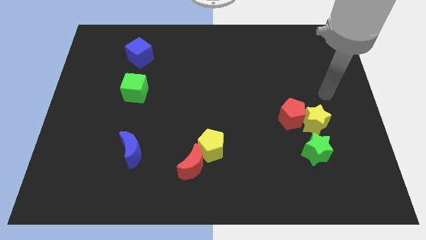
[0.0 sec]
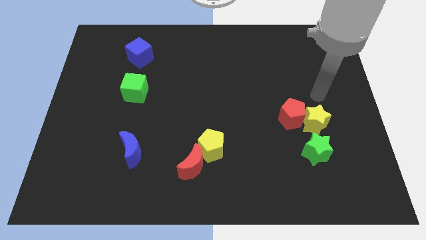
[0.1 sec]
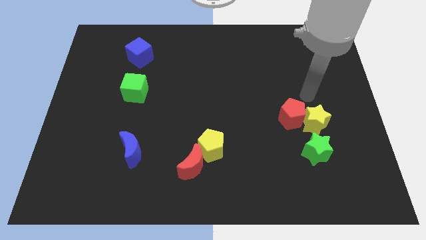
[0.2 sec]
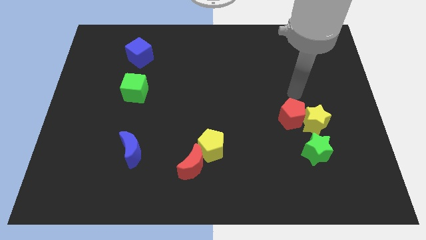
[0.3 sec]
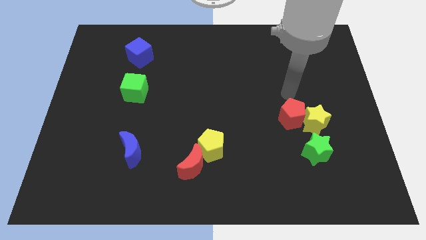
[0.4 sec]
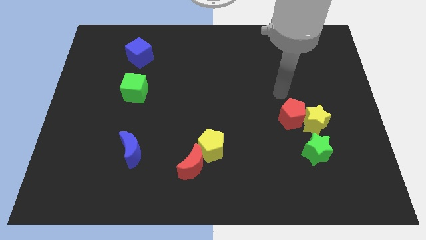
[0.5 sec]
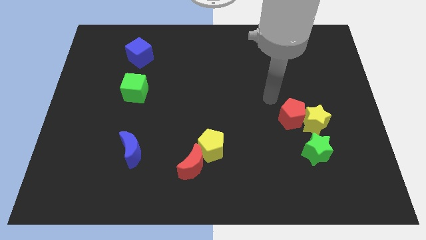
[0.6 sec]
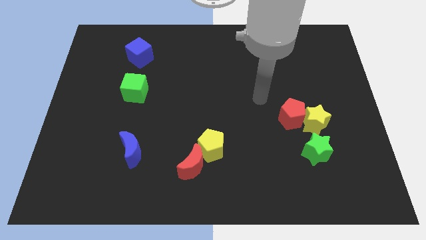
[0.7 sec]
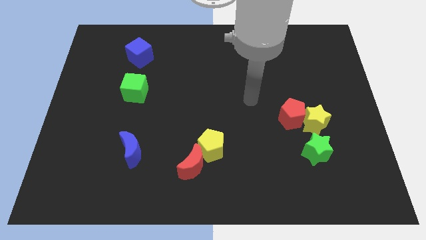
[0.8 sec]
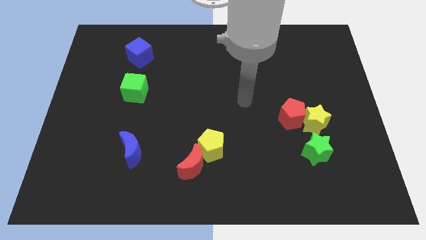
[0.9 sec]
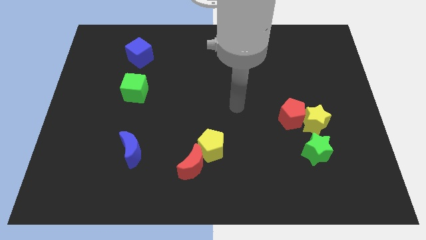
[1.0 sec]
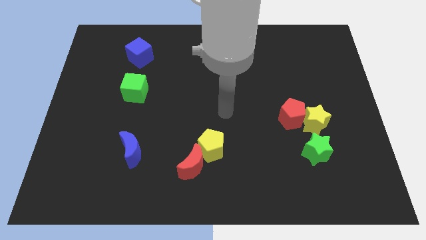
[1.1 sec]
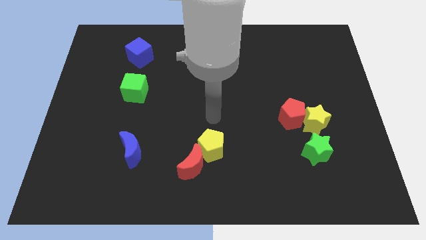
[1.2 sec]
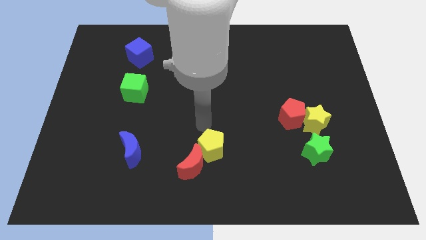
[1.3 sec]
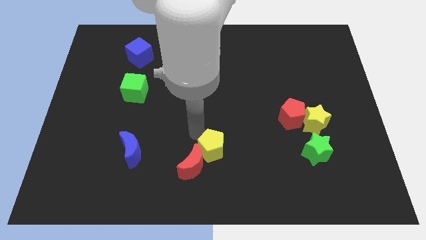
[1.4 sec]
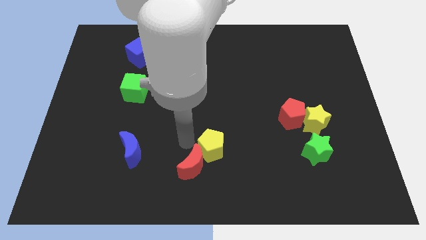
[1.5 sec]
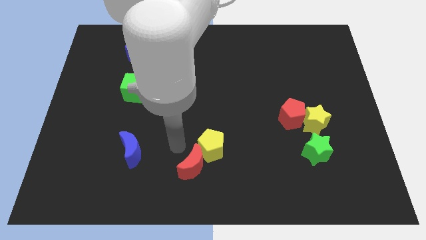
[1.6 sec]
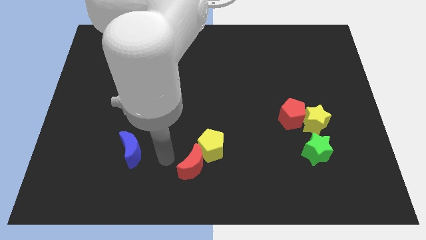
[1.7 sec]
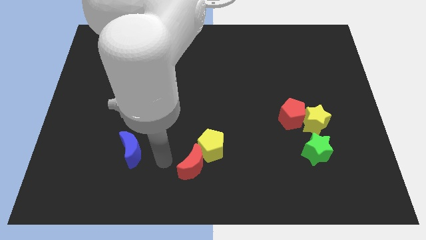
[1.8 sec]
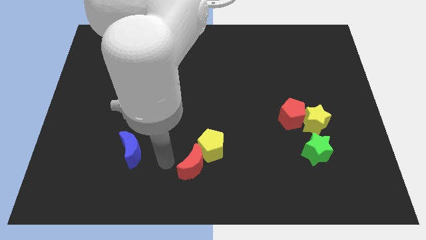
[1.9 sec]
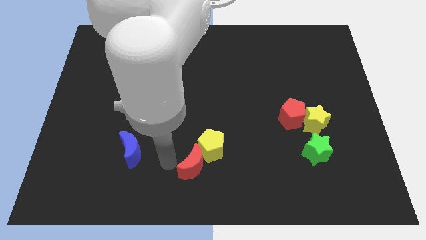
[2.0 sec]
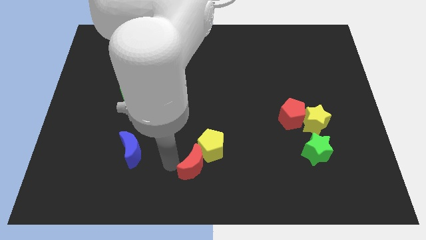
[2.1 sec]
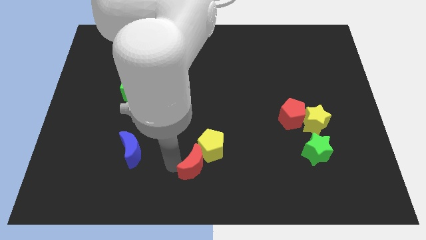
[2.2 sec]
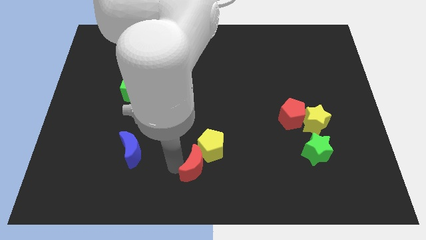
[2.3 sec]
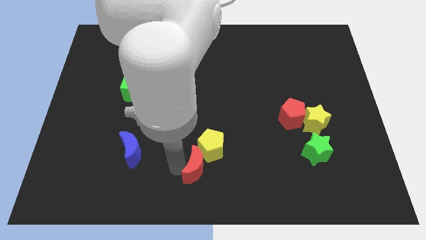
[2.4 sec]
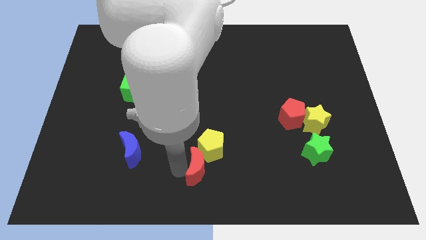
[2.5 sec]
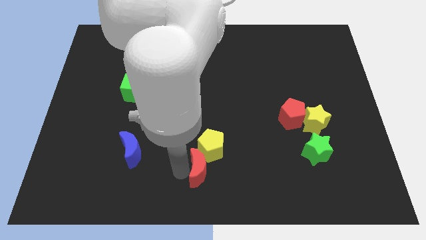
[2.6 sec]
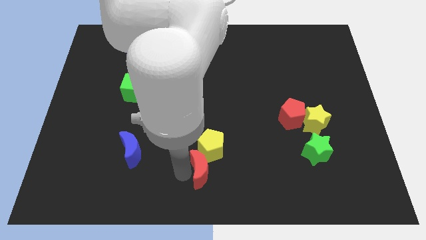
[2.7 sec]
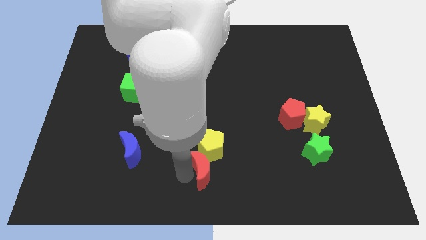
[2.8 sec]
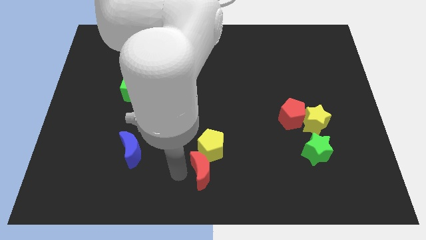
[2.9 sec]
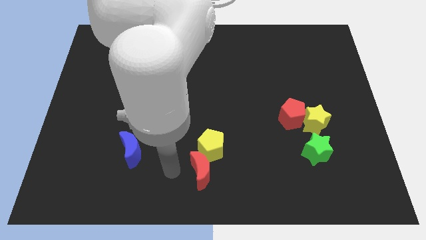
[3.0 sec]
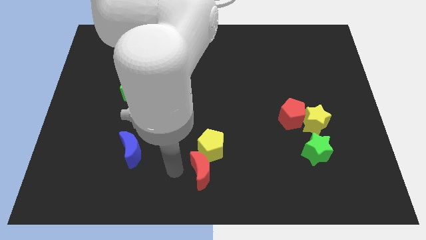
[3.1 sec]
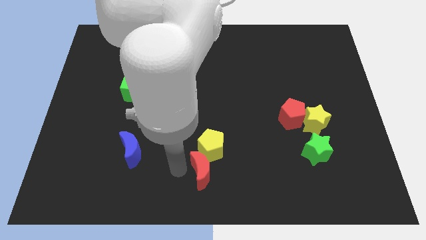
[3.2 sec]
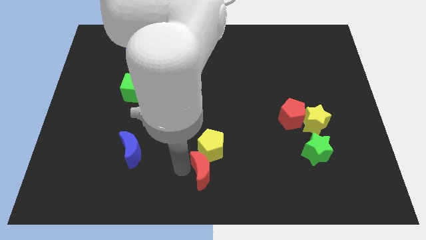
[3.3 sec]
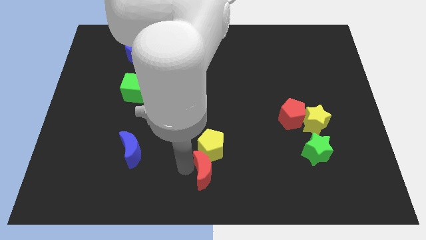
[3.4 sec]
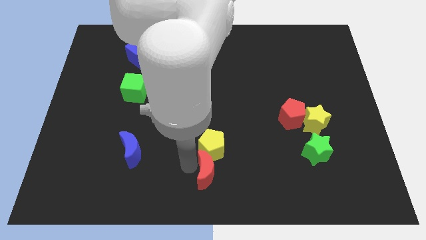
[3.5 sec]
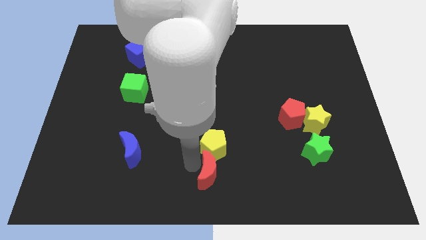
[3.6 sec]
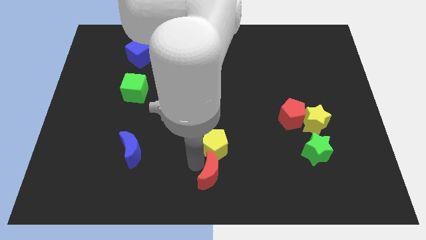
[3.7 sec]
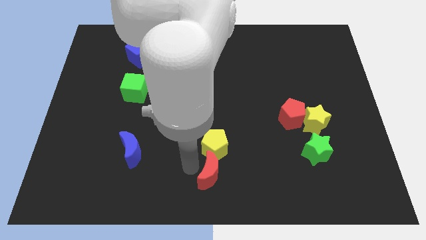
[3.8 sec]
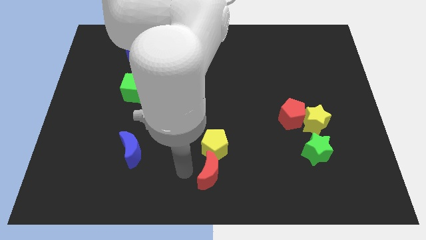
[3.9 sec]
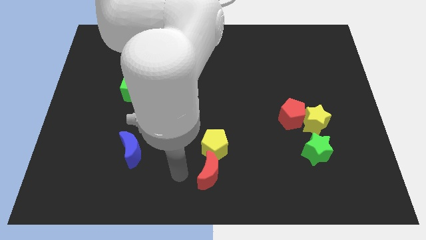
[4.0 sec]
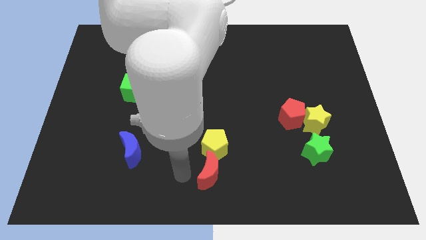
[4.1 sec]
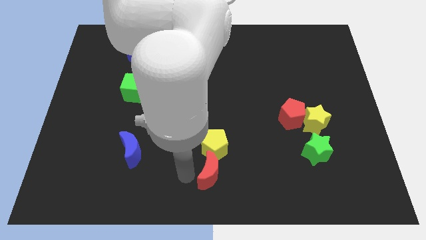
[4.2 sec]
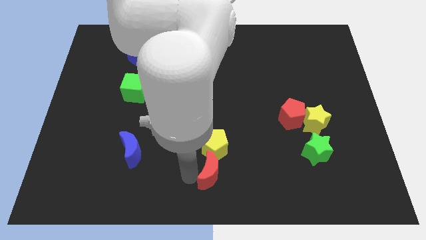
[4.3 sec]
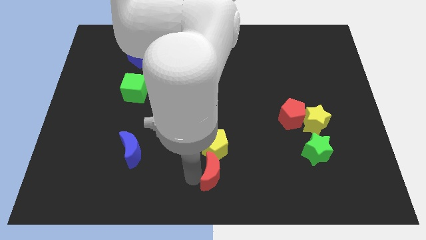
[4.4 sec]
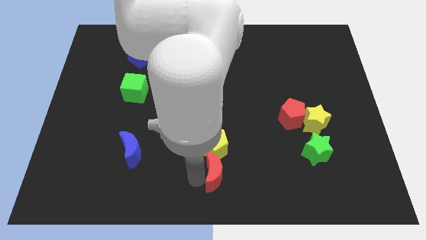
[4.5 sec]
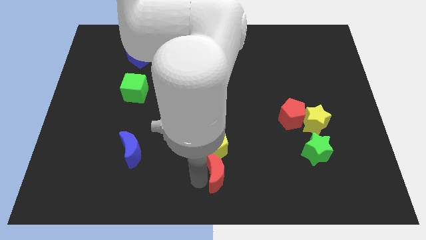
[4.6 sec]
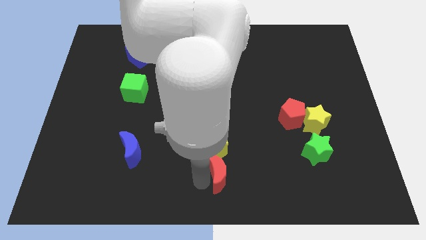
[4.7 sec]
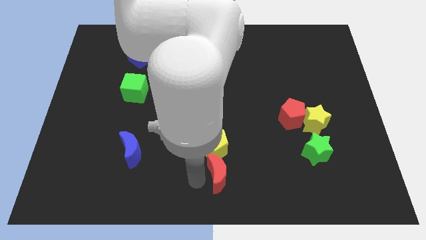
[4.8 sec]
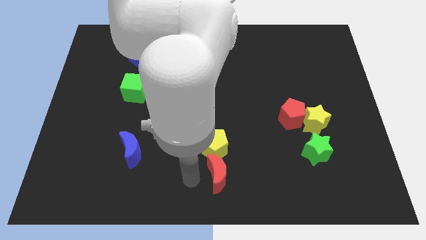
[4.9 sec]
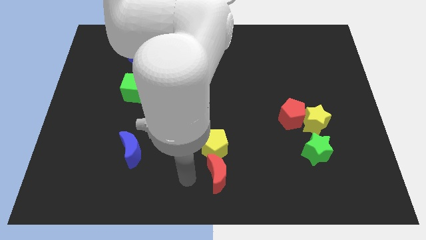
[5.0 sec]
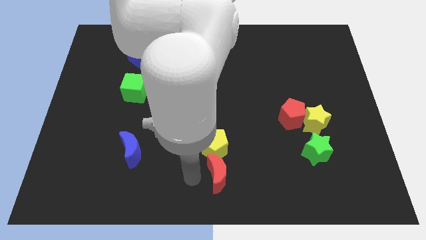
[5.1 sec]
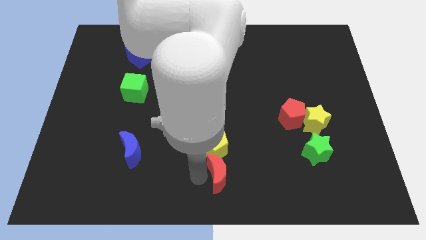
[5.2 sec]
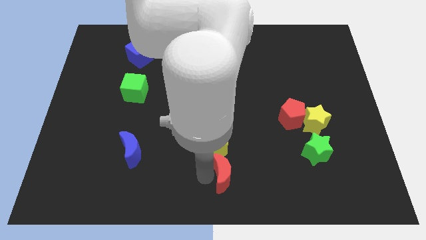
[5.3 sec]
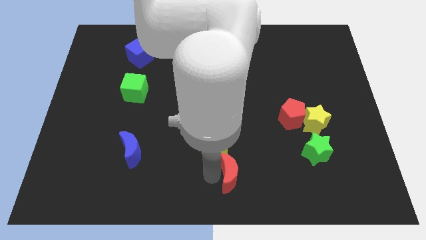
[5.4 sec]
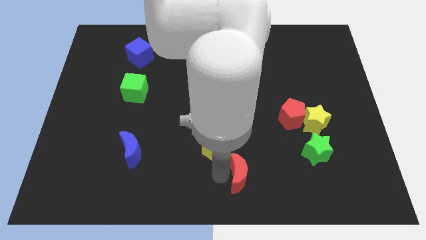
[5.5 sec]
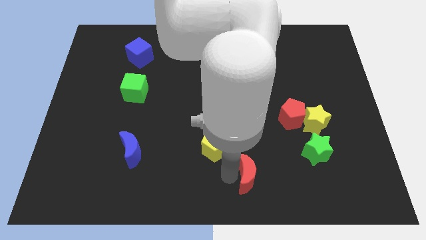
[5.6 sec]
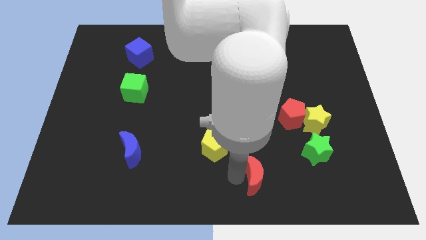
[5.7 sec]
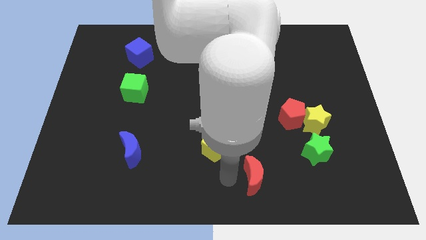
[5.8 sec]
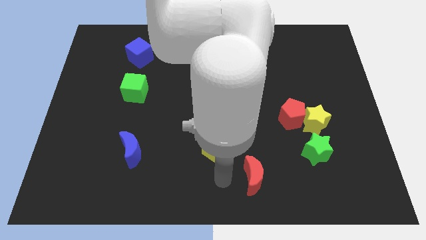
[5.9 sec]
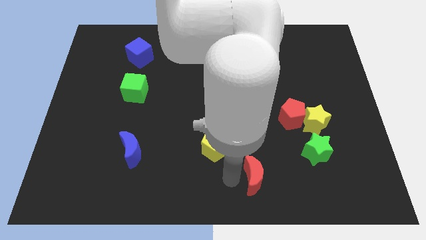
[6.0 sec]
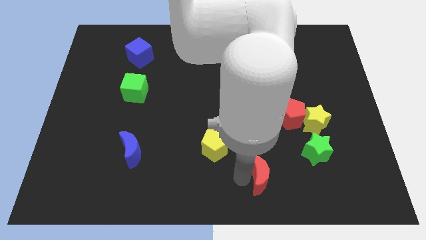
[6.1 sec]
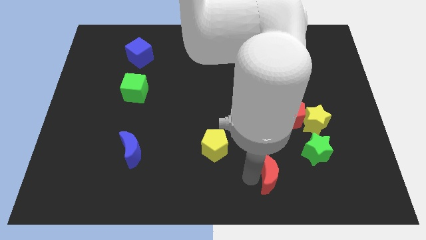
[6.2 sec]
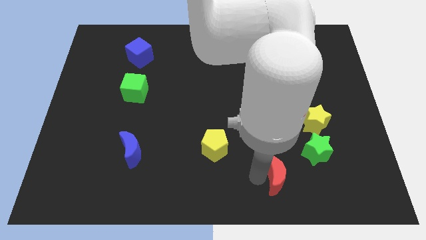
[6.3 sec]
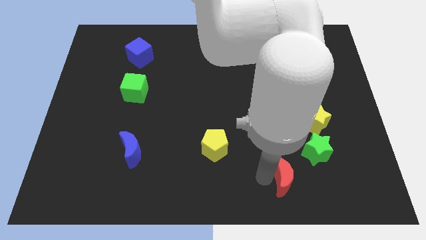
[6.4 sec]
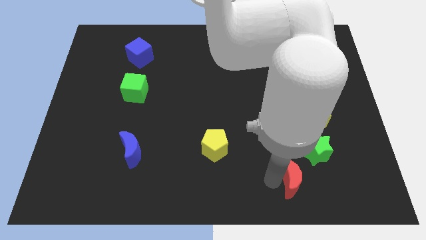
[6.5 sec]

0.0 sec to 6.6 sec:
put the red moon below the red pentagon
